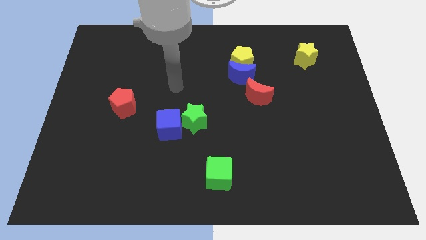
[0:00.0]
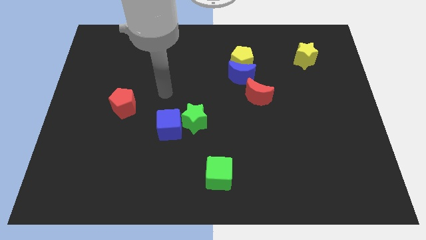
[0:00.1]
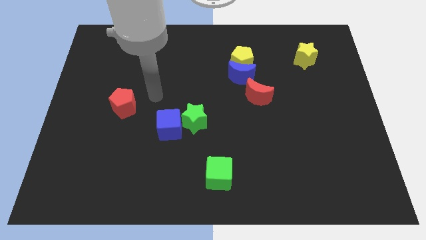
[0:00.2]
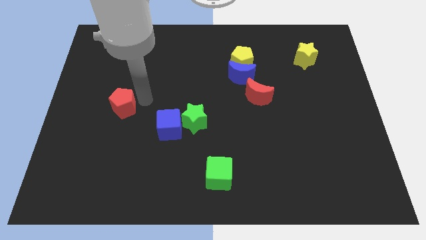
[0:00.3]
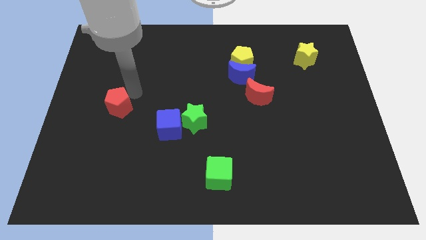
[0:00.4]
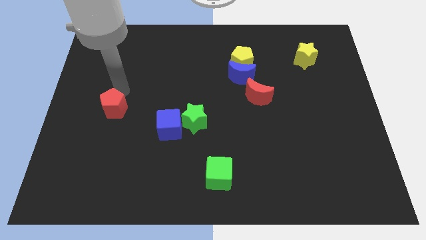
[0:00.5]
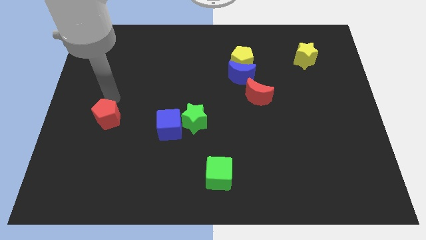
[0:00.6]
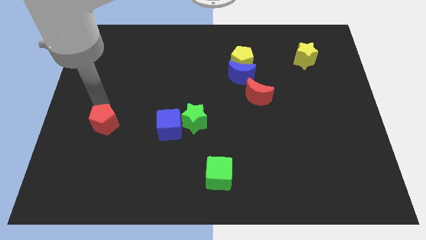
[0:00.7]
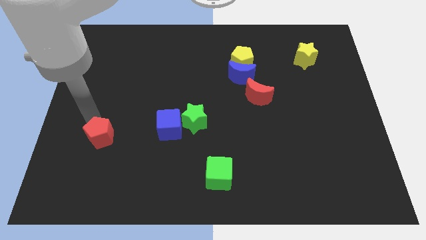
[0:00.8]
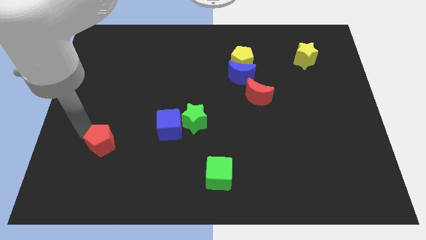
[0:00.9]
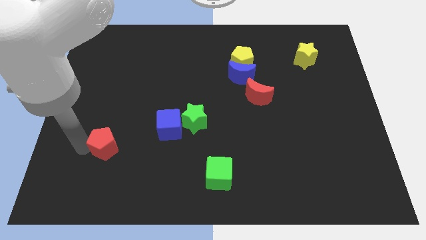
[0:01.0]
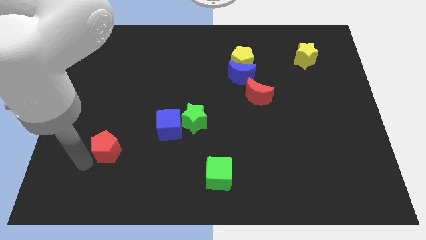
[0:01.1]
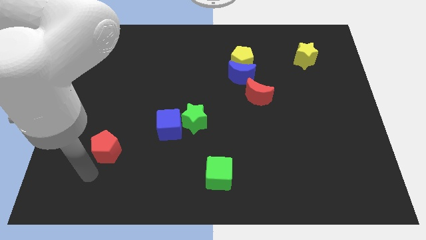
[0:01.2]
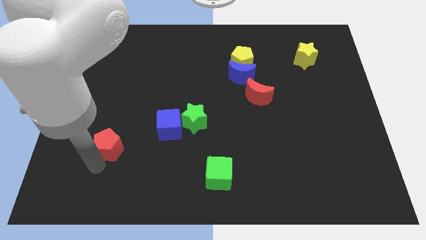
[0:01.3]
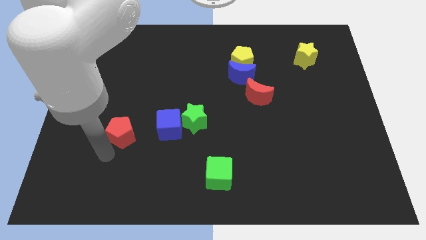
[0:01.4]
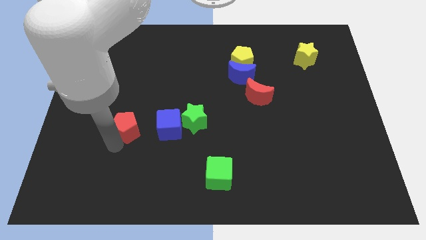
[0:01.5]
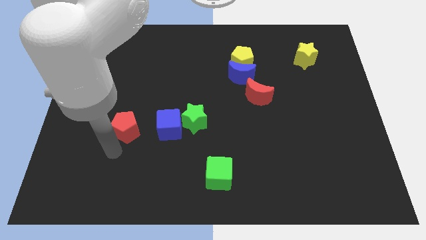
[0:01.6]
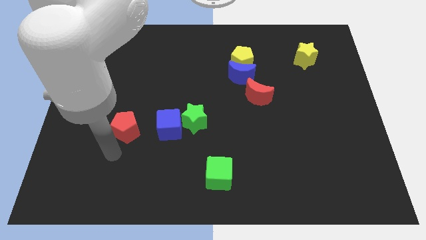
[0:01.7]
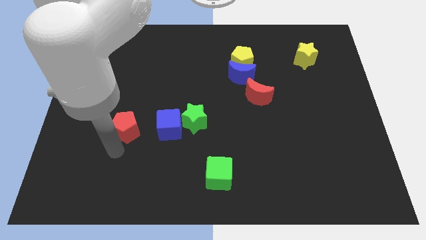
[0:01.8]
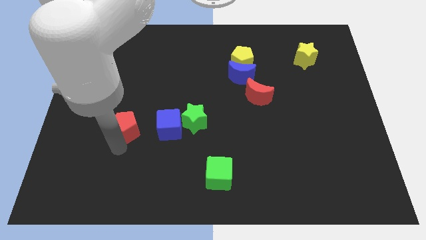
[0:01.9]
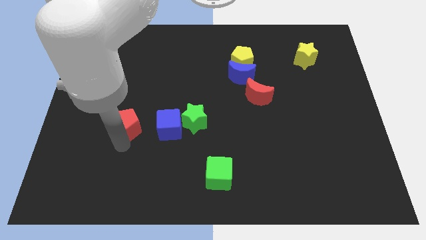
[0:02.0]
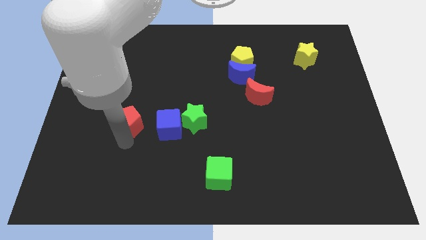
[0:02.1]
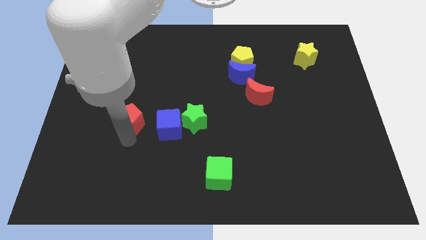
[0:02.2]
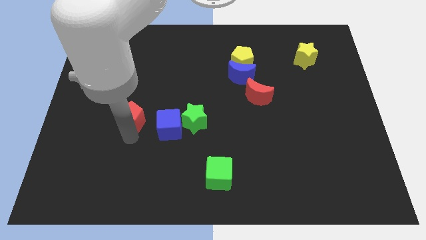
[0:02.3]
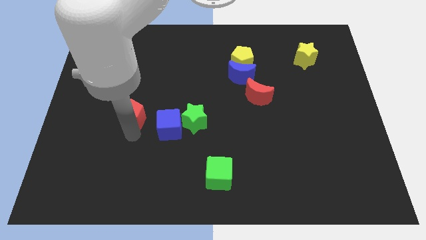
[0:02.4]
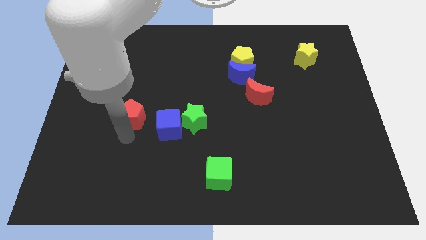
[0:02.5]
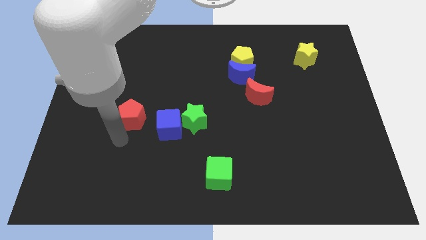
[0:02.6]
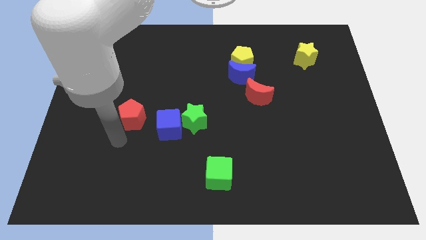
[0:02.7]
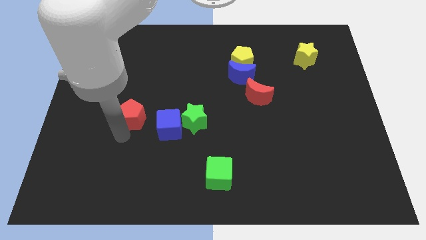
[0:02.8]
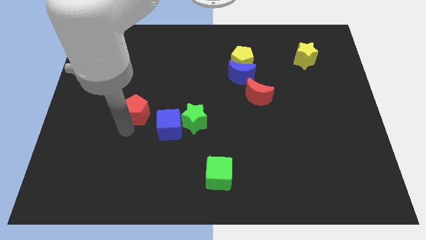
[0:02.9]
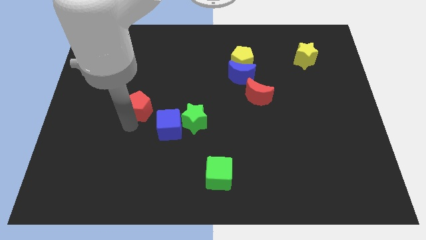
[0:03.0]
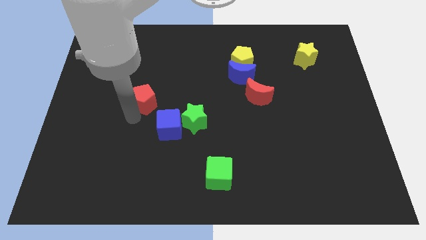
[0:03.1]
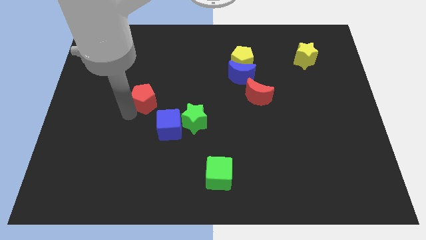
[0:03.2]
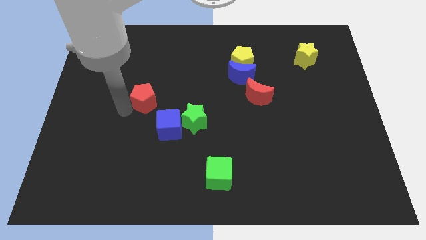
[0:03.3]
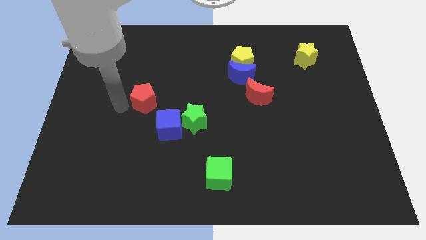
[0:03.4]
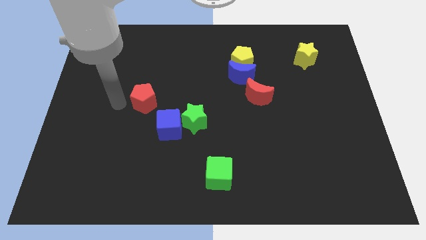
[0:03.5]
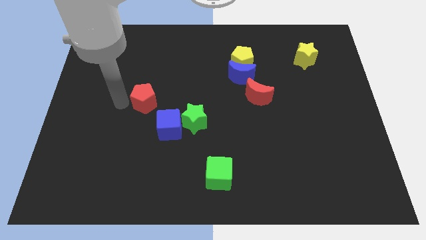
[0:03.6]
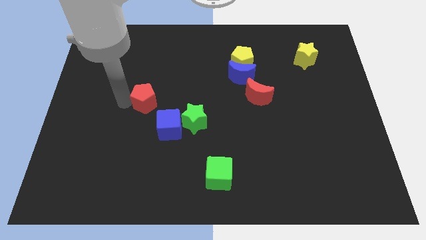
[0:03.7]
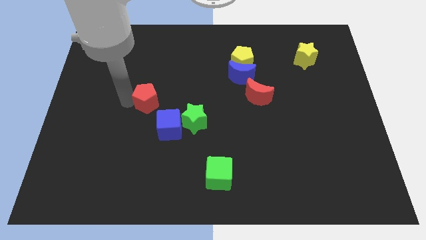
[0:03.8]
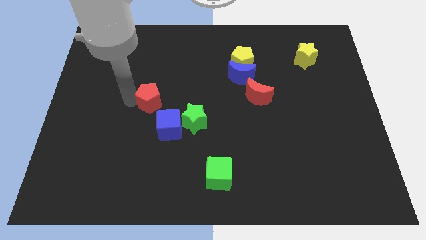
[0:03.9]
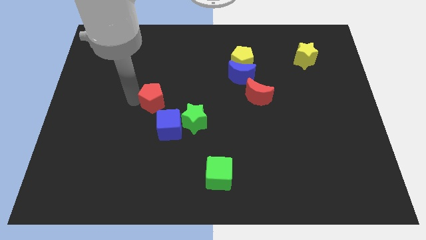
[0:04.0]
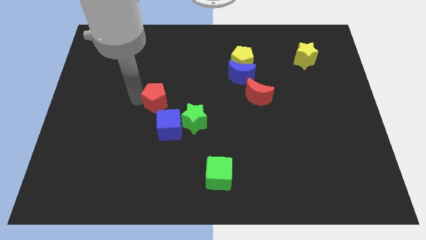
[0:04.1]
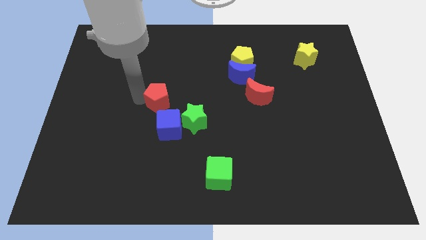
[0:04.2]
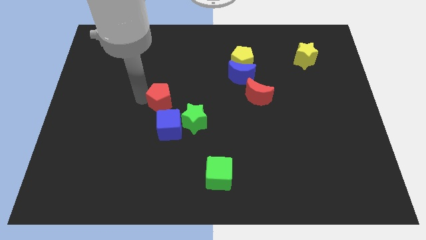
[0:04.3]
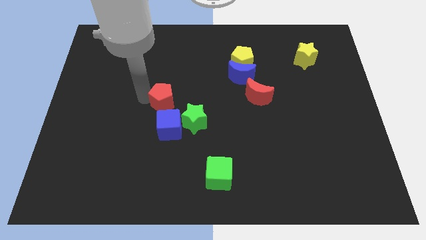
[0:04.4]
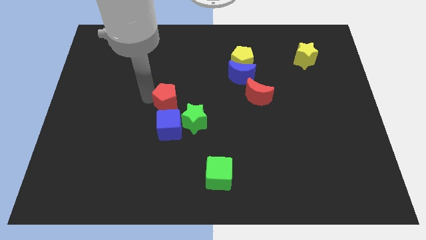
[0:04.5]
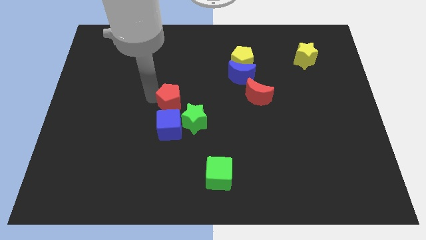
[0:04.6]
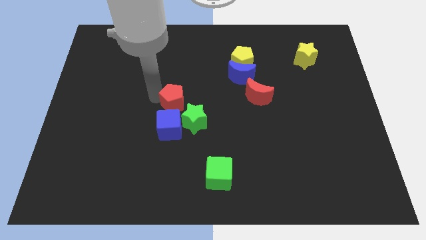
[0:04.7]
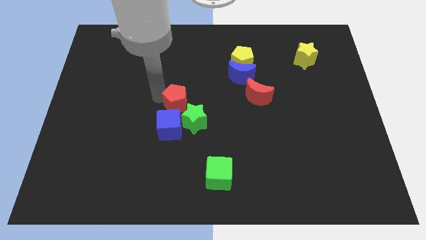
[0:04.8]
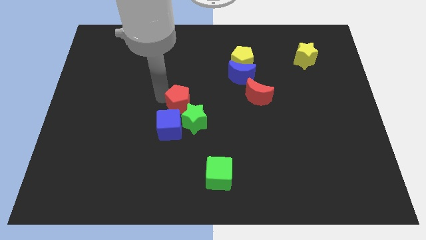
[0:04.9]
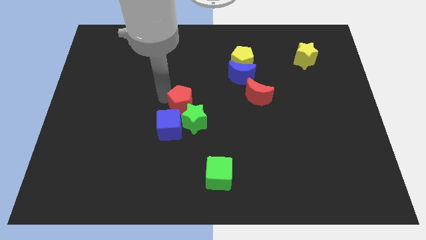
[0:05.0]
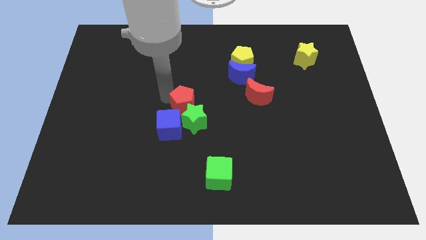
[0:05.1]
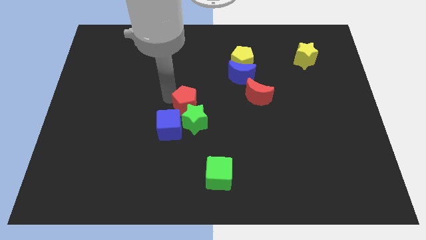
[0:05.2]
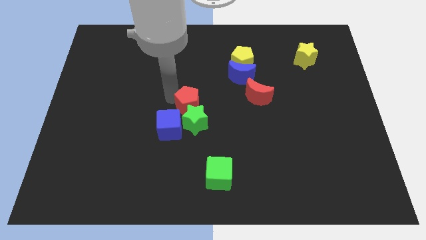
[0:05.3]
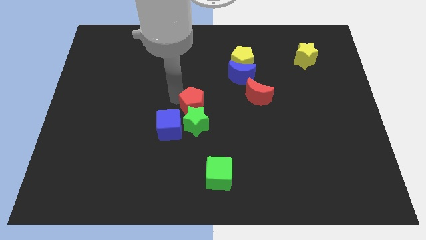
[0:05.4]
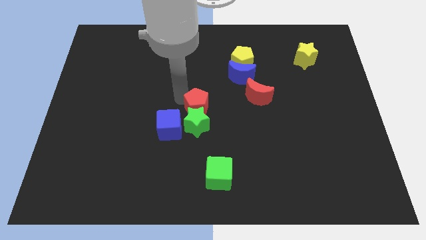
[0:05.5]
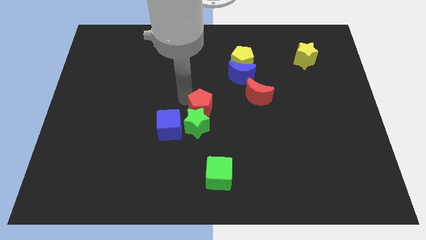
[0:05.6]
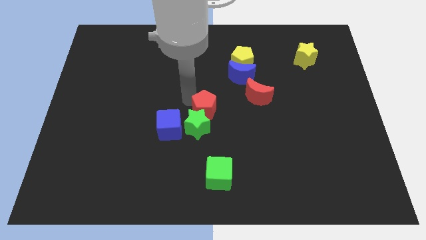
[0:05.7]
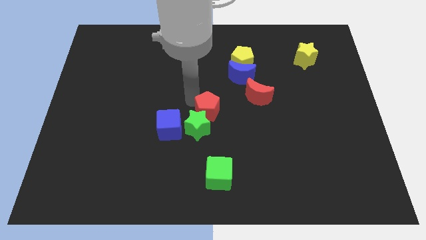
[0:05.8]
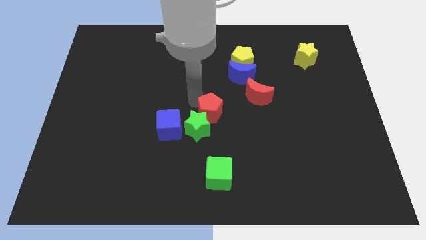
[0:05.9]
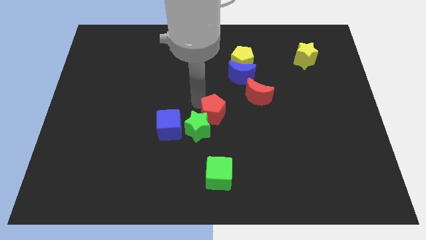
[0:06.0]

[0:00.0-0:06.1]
put the red pentagon diagonally down and to the left of the red moon
